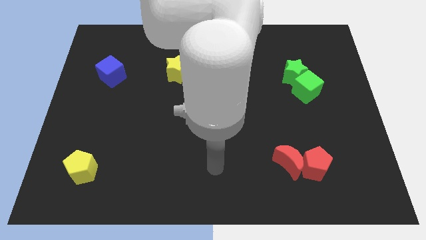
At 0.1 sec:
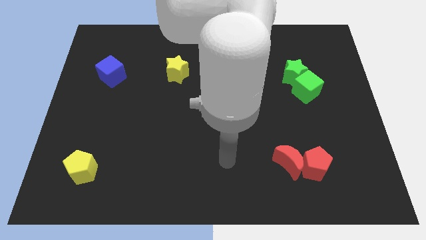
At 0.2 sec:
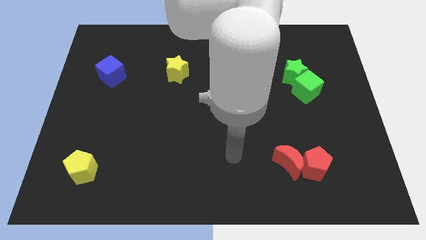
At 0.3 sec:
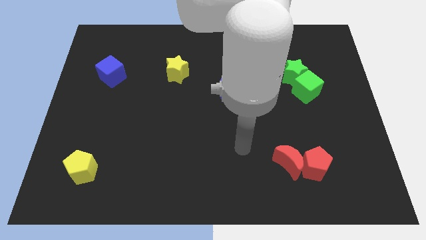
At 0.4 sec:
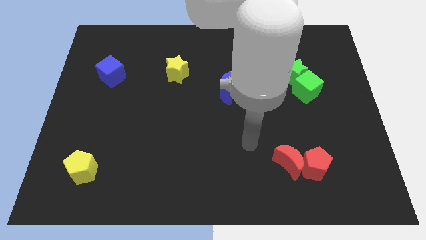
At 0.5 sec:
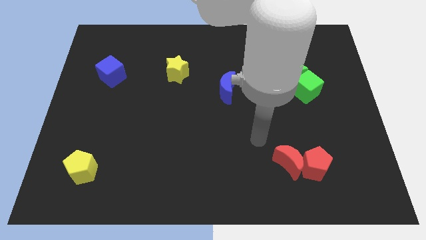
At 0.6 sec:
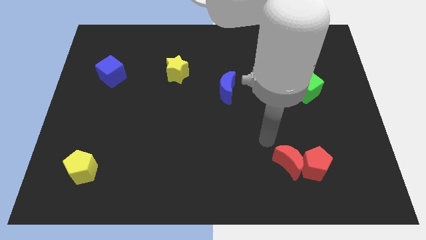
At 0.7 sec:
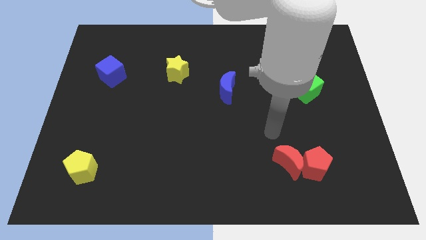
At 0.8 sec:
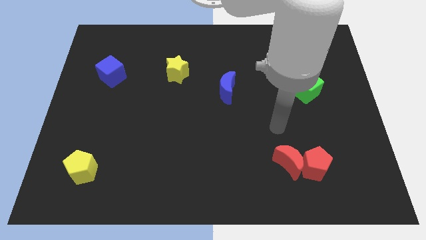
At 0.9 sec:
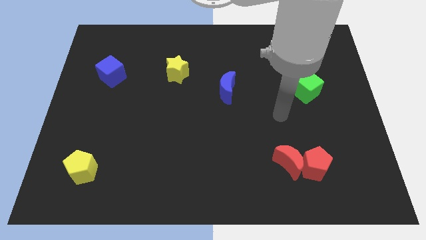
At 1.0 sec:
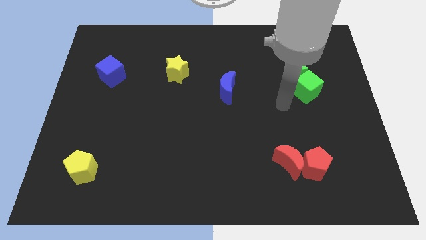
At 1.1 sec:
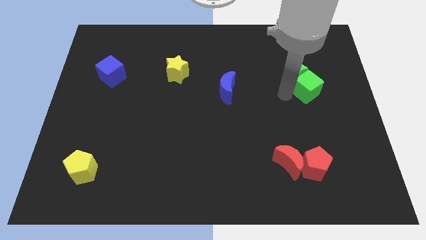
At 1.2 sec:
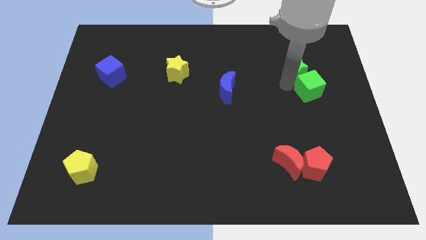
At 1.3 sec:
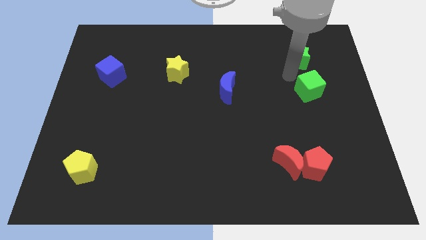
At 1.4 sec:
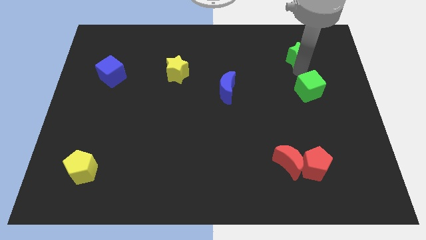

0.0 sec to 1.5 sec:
pull the green cube apart from the green star

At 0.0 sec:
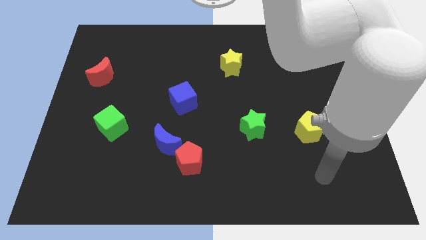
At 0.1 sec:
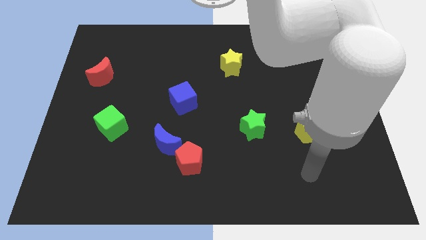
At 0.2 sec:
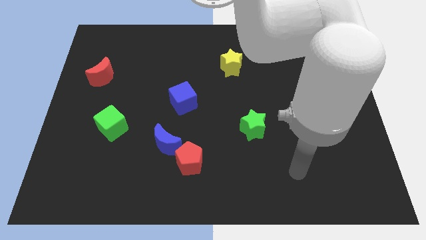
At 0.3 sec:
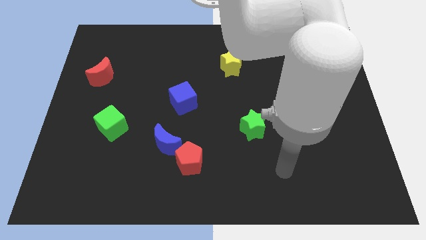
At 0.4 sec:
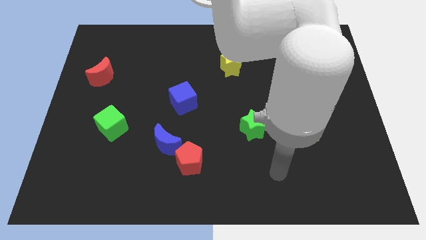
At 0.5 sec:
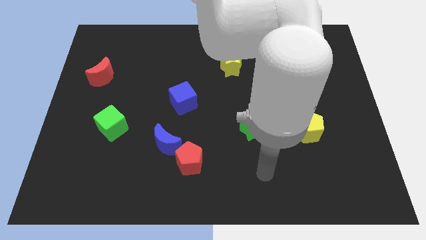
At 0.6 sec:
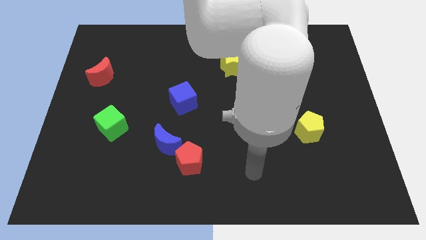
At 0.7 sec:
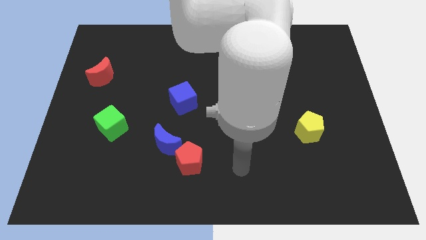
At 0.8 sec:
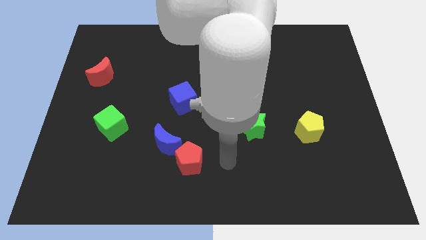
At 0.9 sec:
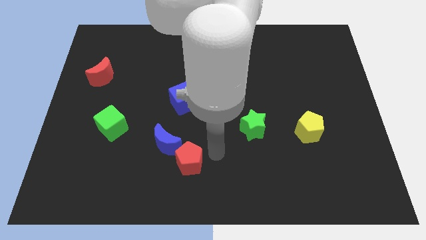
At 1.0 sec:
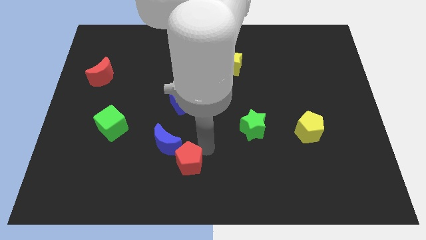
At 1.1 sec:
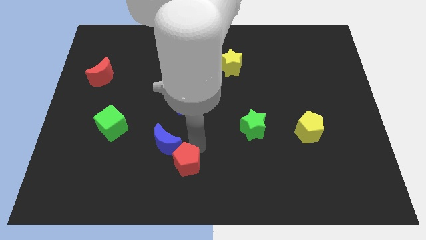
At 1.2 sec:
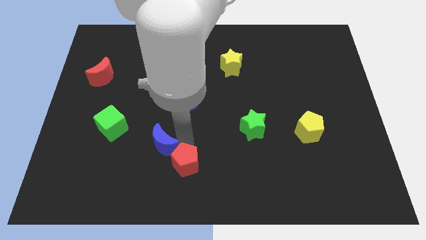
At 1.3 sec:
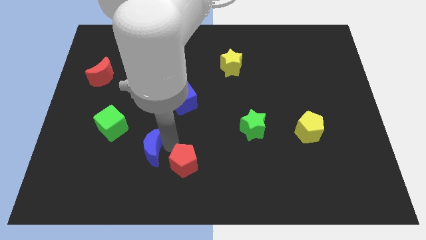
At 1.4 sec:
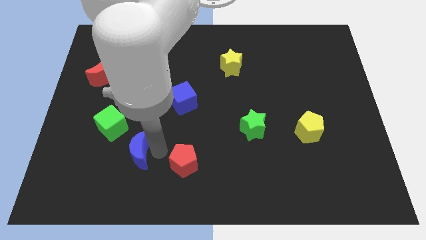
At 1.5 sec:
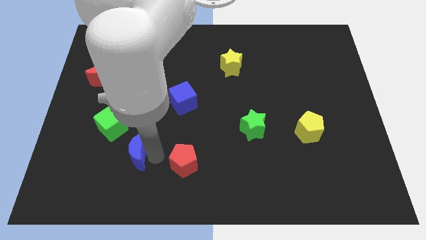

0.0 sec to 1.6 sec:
separate the red pentagon from the blue moon

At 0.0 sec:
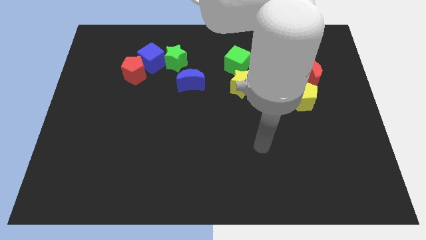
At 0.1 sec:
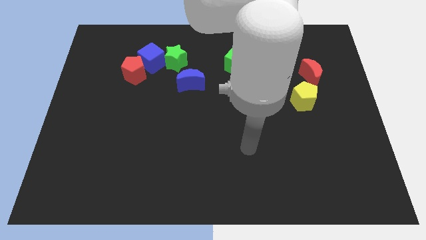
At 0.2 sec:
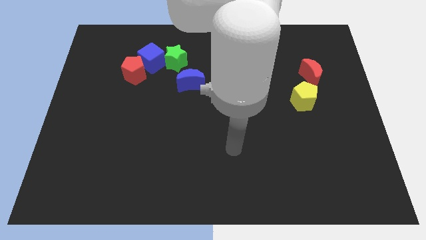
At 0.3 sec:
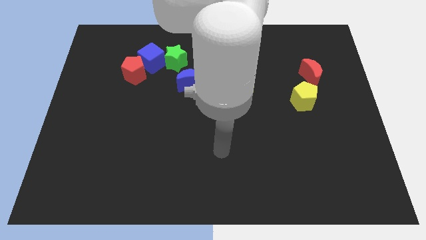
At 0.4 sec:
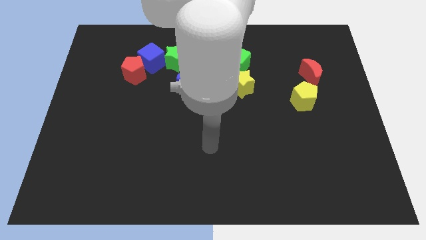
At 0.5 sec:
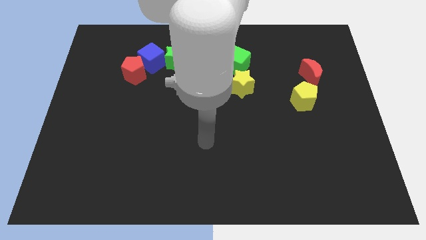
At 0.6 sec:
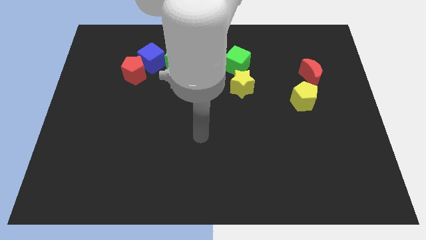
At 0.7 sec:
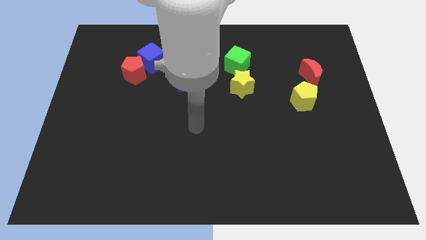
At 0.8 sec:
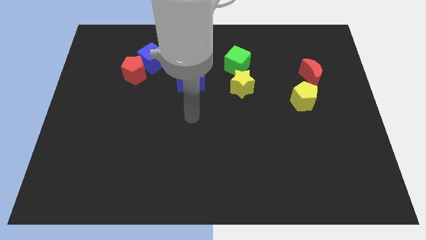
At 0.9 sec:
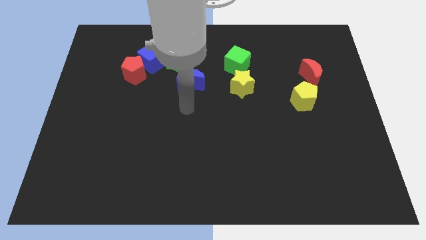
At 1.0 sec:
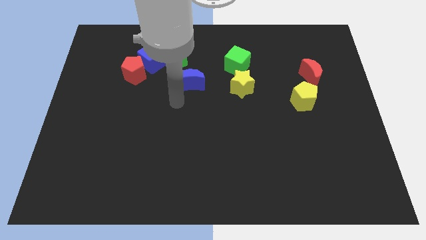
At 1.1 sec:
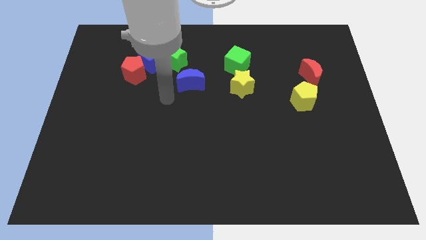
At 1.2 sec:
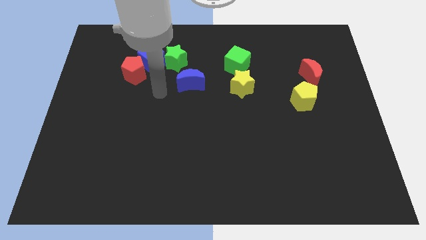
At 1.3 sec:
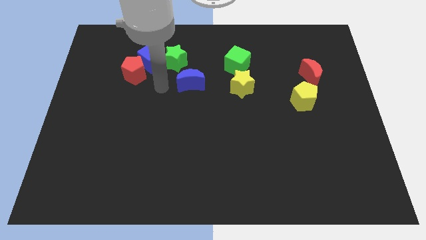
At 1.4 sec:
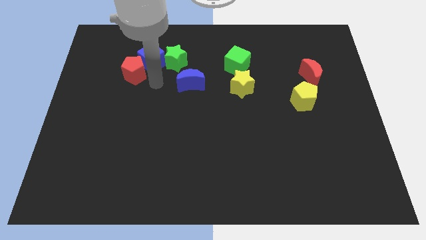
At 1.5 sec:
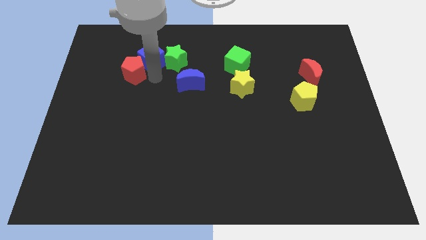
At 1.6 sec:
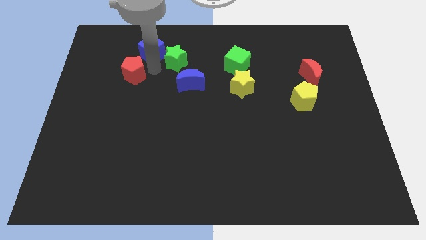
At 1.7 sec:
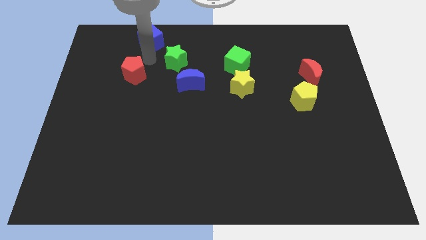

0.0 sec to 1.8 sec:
separate the red pentagon from the blue cube

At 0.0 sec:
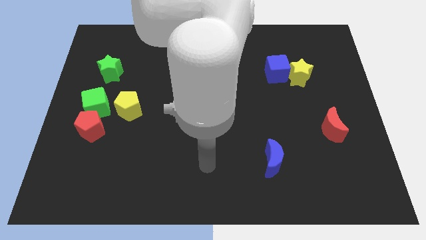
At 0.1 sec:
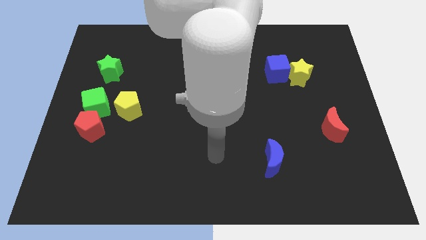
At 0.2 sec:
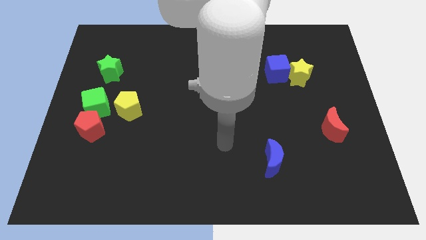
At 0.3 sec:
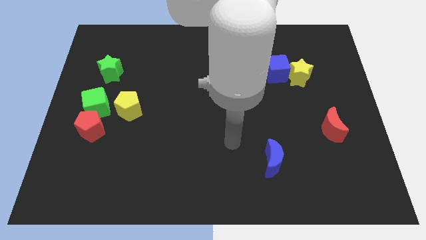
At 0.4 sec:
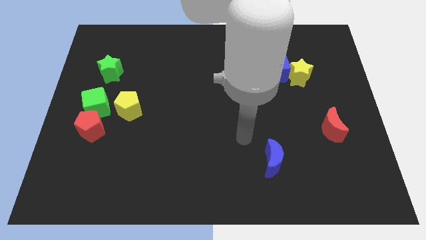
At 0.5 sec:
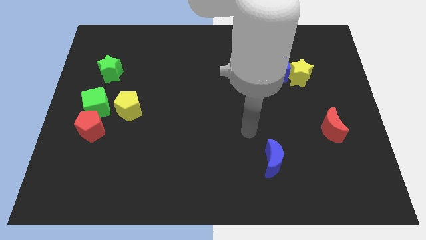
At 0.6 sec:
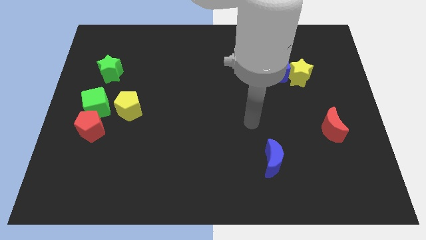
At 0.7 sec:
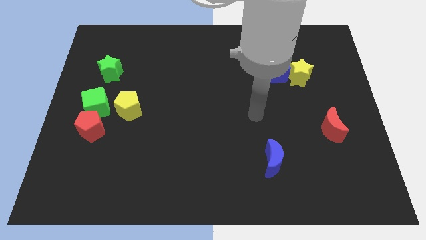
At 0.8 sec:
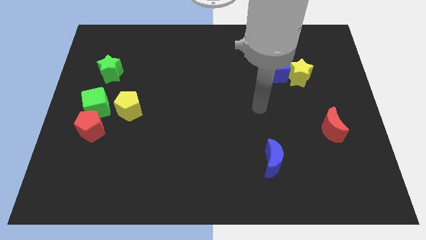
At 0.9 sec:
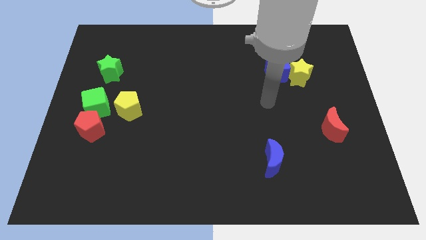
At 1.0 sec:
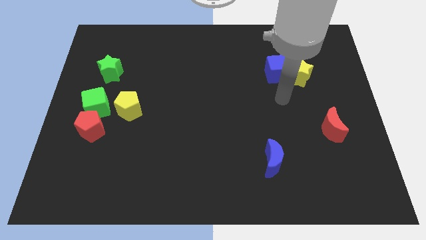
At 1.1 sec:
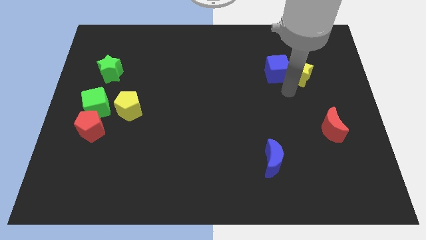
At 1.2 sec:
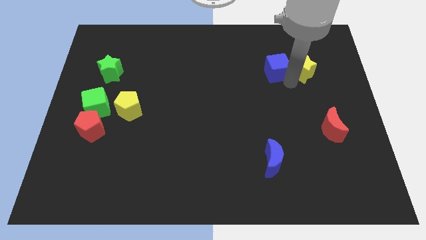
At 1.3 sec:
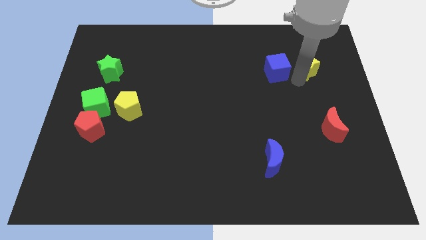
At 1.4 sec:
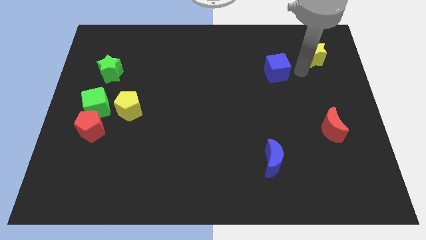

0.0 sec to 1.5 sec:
pull the blue cube apart from the yellow star

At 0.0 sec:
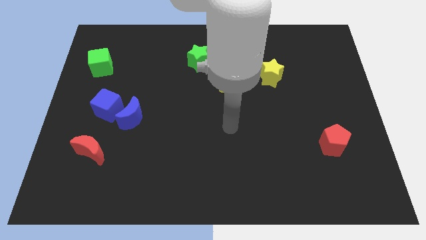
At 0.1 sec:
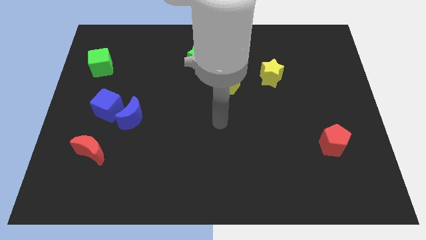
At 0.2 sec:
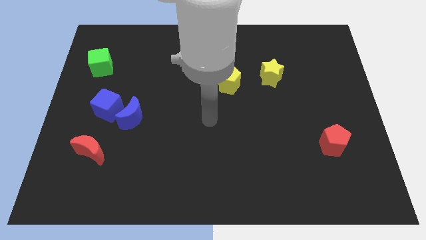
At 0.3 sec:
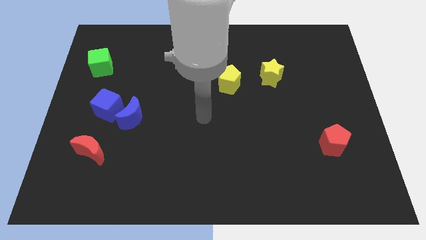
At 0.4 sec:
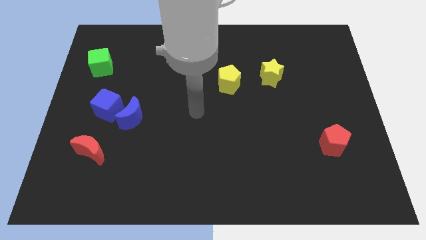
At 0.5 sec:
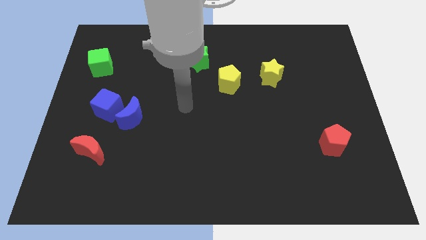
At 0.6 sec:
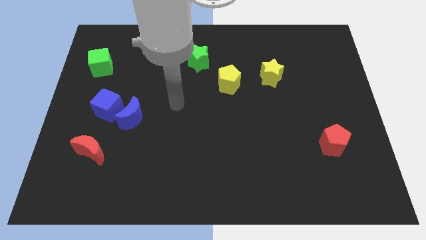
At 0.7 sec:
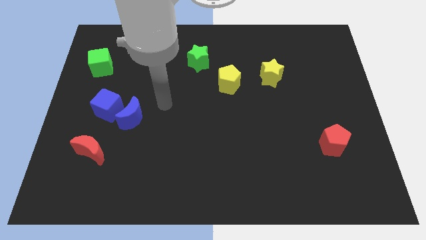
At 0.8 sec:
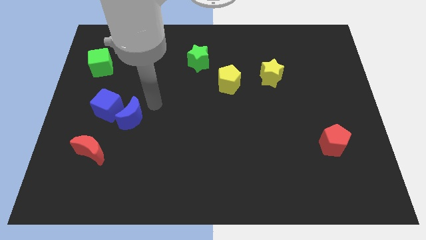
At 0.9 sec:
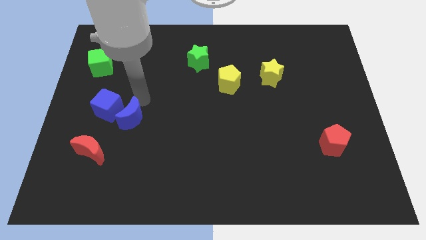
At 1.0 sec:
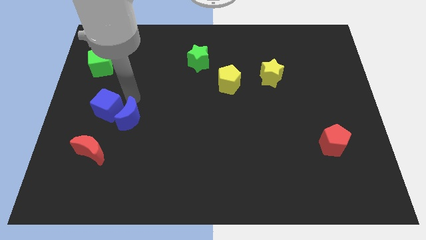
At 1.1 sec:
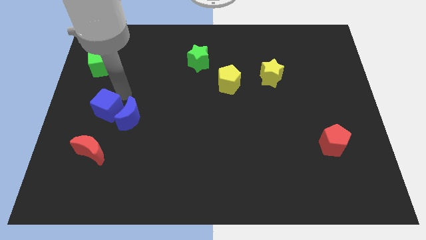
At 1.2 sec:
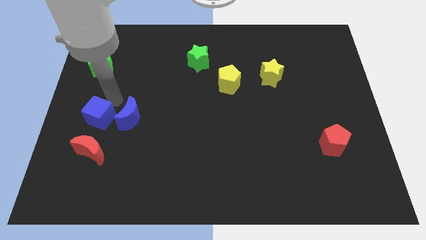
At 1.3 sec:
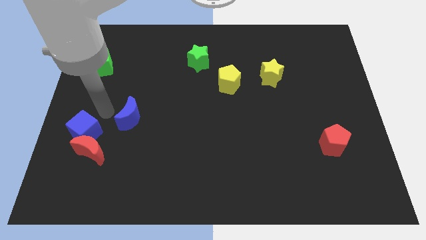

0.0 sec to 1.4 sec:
separate the blue moon from the blue cube

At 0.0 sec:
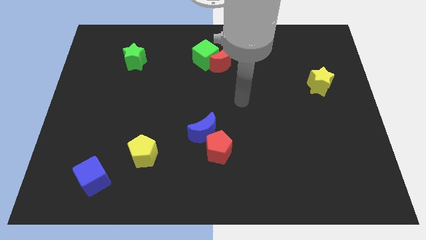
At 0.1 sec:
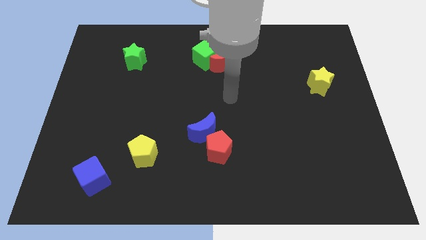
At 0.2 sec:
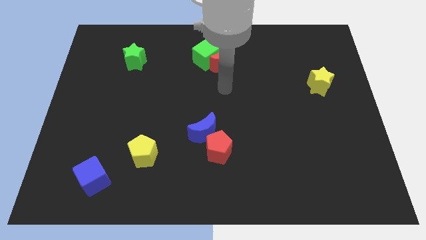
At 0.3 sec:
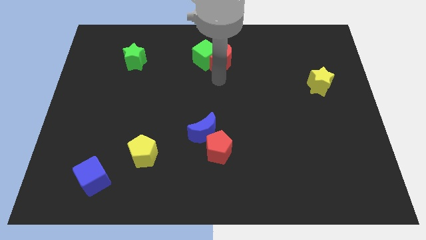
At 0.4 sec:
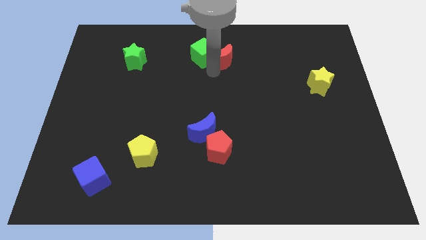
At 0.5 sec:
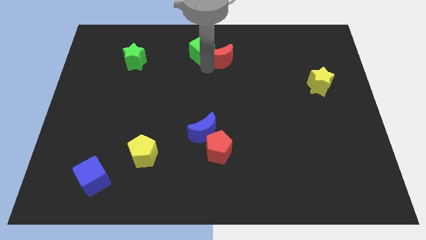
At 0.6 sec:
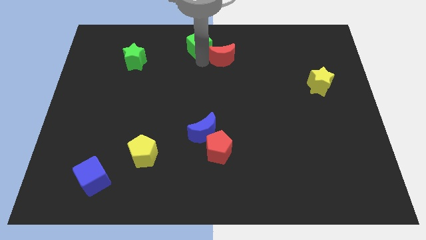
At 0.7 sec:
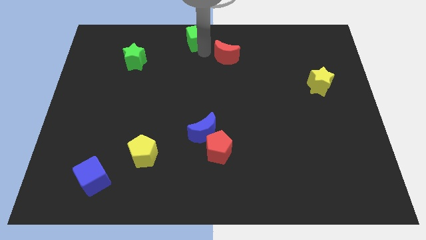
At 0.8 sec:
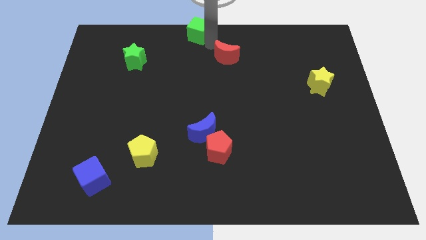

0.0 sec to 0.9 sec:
pull the red moon apart from the green cube

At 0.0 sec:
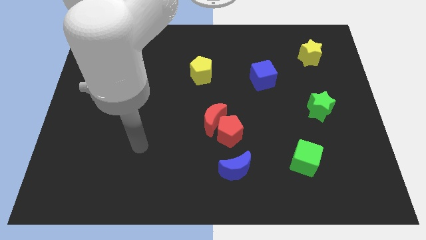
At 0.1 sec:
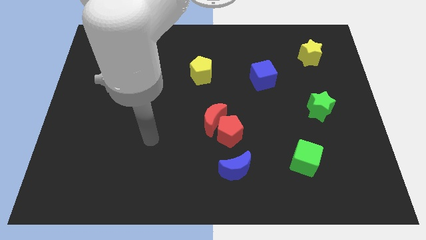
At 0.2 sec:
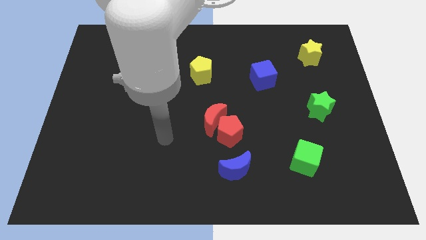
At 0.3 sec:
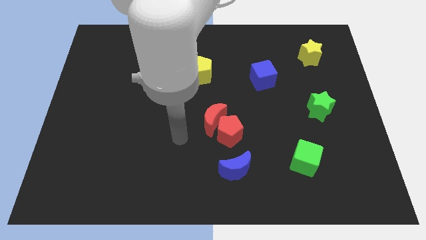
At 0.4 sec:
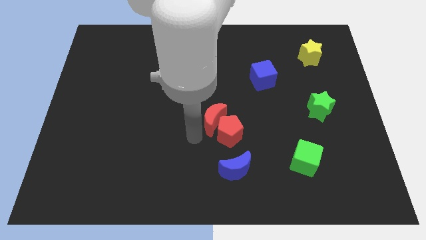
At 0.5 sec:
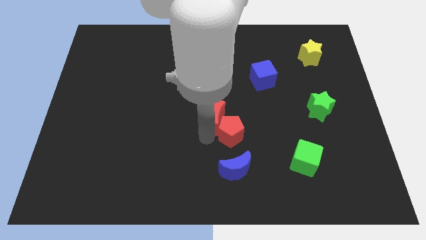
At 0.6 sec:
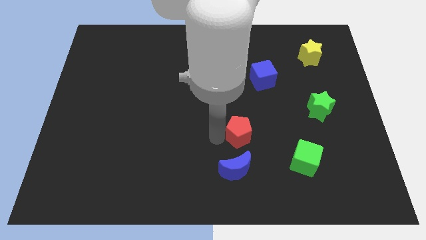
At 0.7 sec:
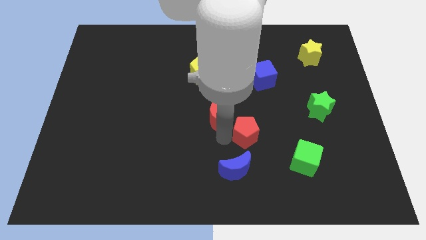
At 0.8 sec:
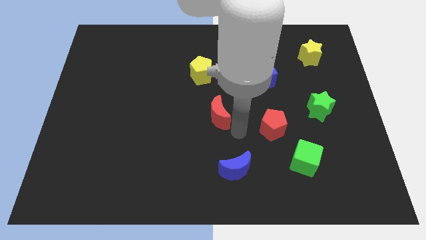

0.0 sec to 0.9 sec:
move the red moon away from the red pentagon
